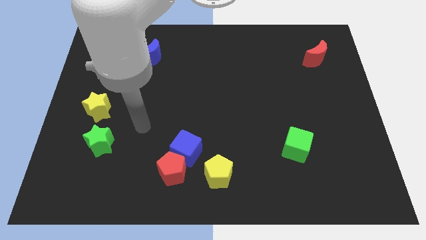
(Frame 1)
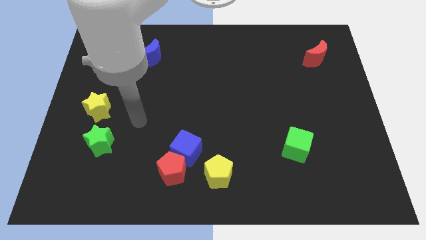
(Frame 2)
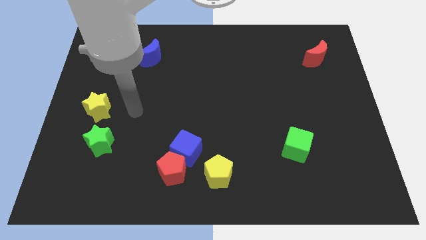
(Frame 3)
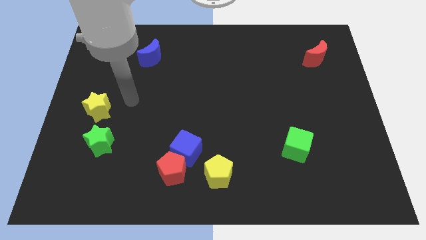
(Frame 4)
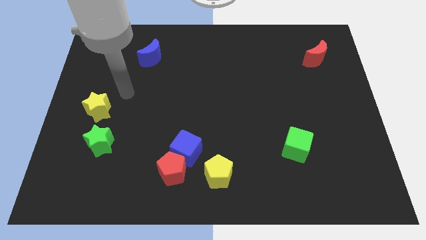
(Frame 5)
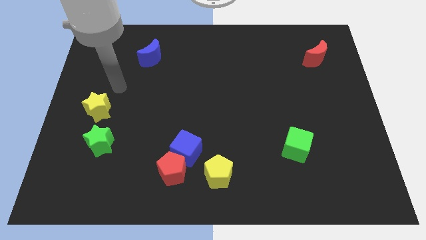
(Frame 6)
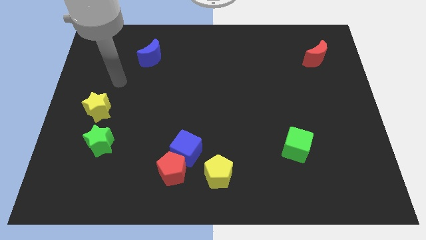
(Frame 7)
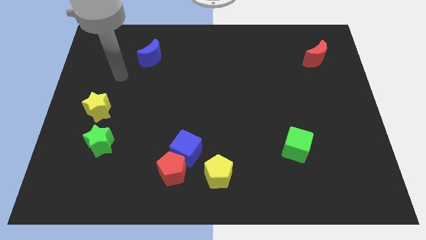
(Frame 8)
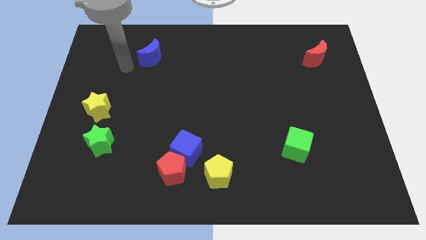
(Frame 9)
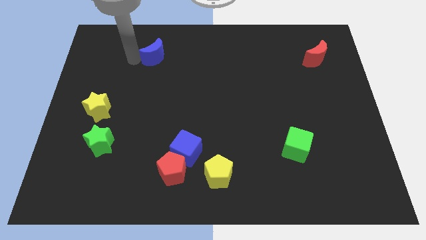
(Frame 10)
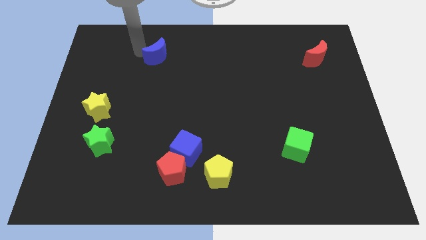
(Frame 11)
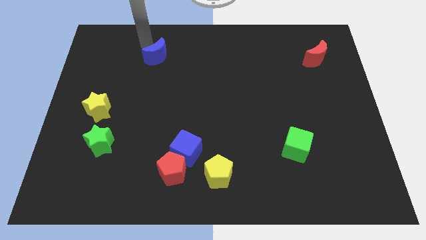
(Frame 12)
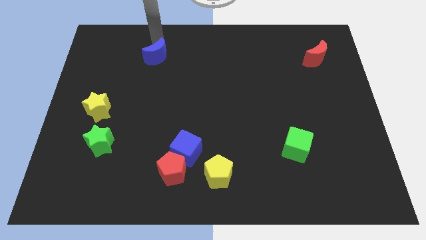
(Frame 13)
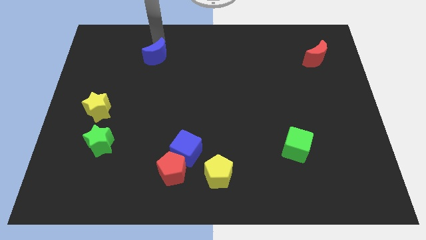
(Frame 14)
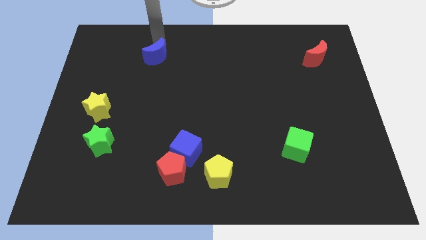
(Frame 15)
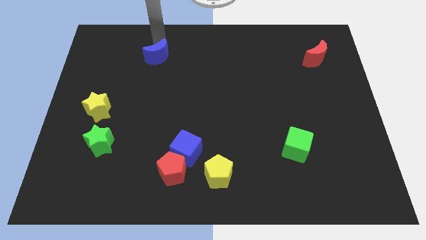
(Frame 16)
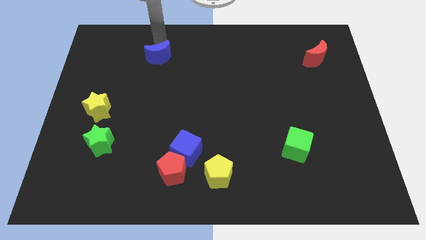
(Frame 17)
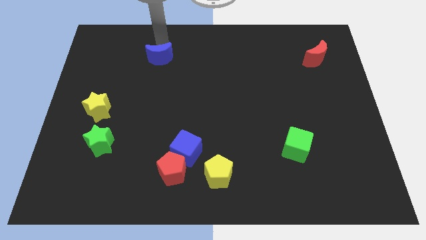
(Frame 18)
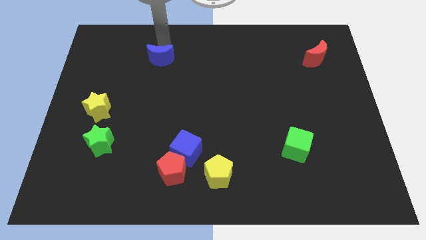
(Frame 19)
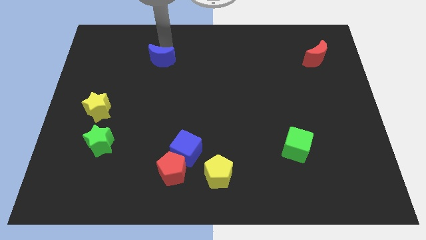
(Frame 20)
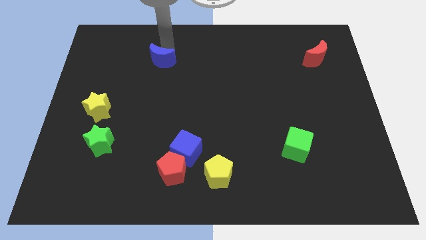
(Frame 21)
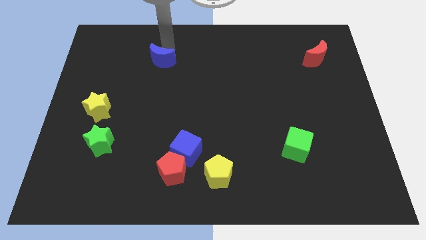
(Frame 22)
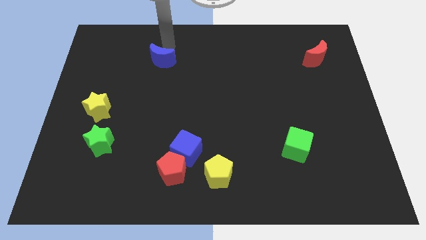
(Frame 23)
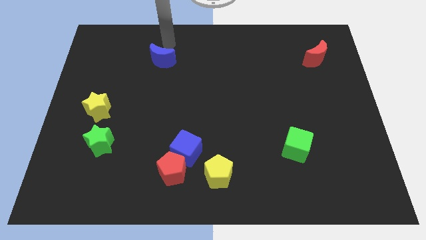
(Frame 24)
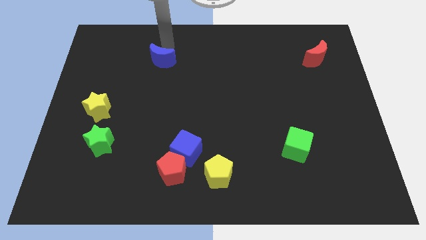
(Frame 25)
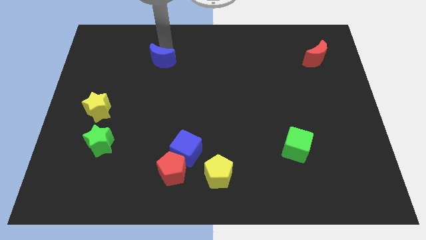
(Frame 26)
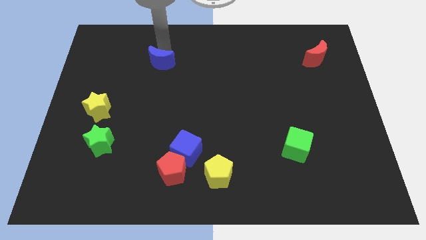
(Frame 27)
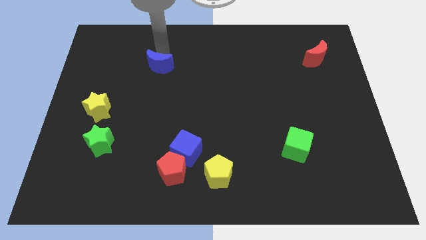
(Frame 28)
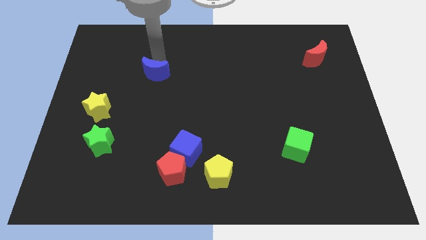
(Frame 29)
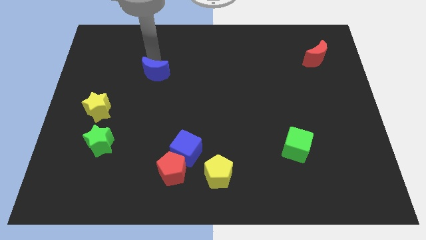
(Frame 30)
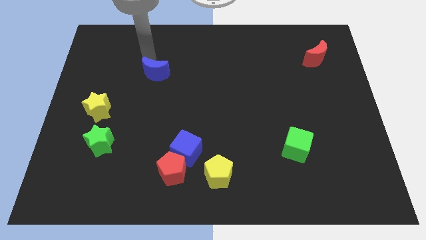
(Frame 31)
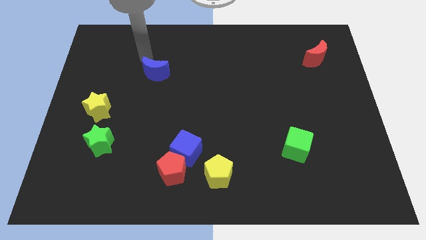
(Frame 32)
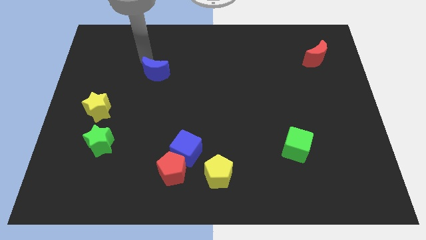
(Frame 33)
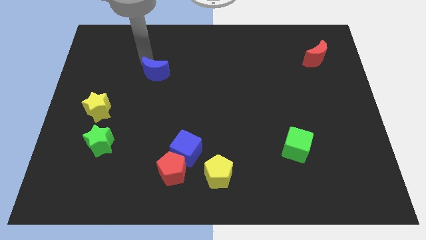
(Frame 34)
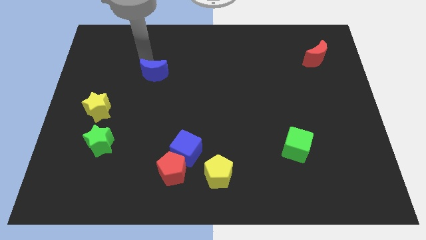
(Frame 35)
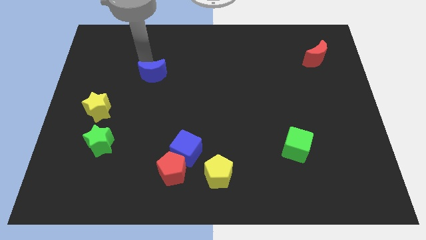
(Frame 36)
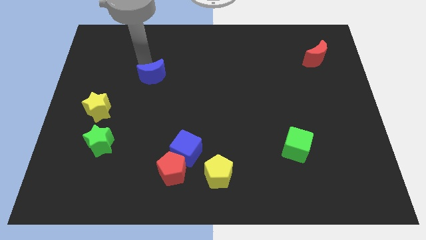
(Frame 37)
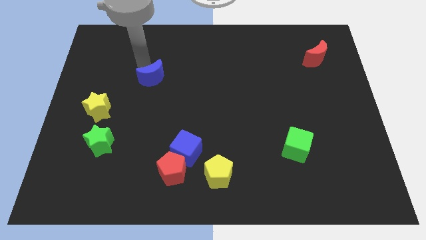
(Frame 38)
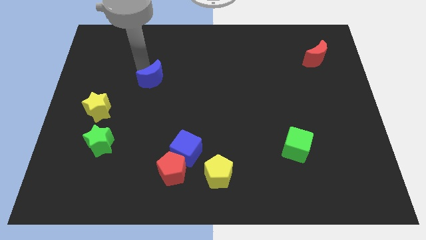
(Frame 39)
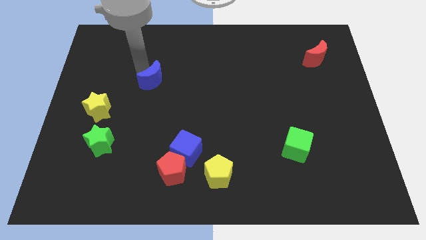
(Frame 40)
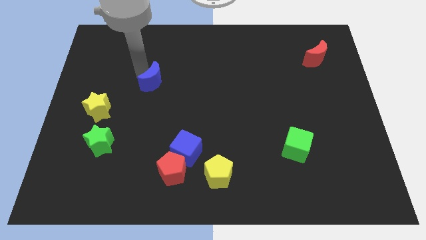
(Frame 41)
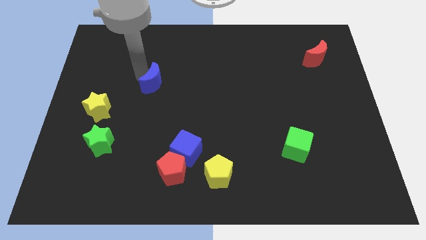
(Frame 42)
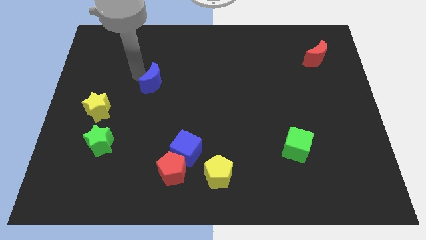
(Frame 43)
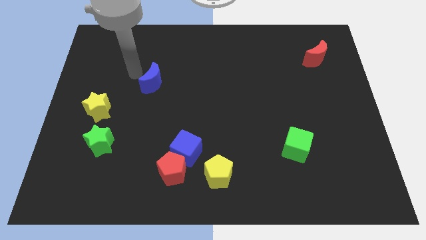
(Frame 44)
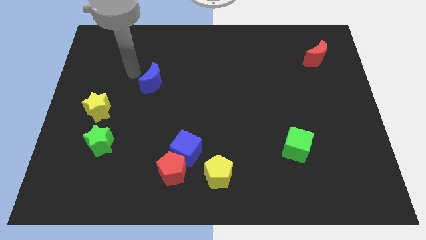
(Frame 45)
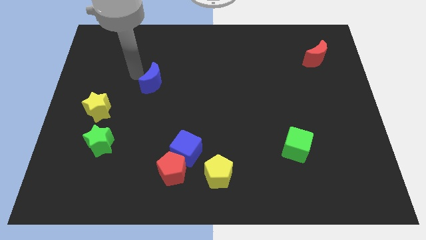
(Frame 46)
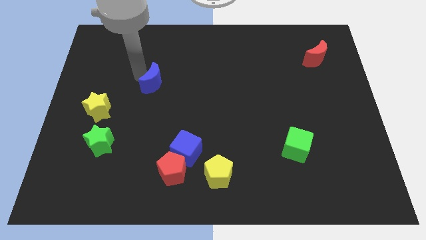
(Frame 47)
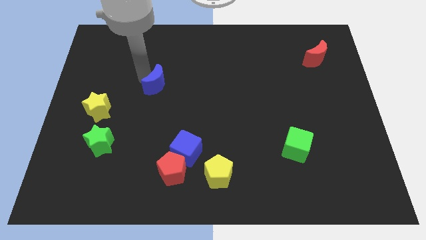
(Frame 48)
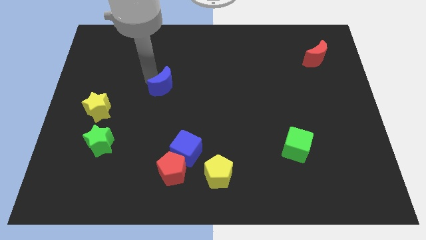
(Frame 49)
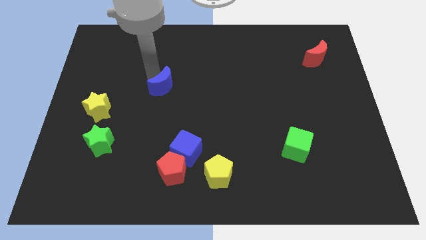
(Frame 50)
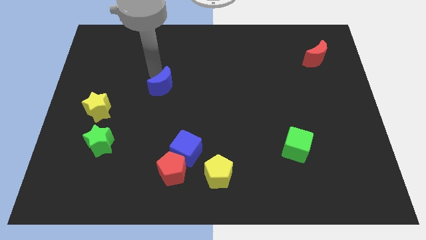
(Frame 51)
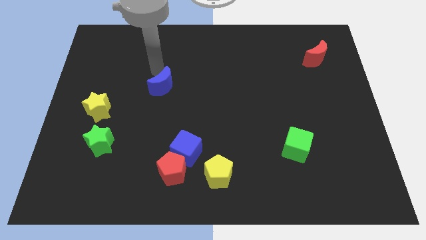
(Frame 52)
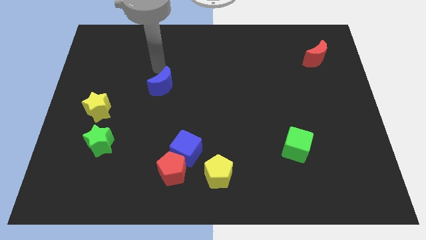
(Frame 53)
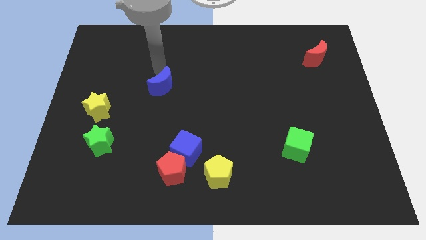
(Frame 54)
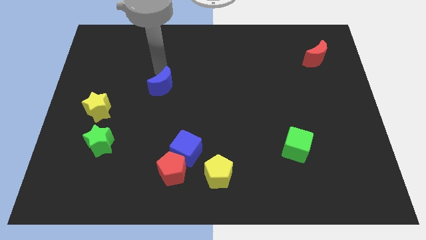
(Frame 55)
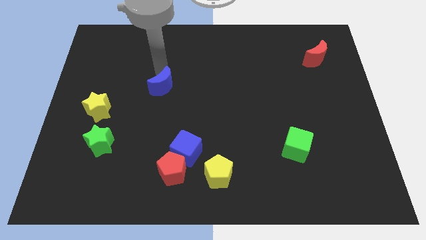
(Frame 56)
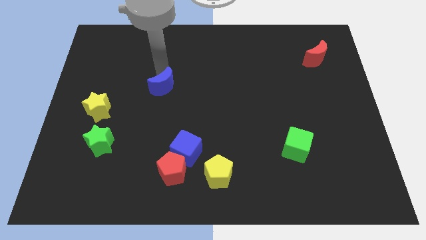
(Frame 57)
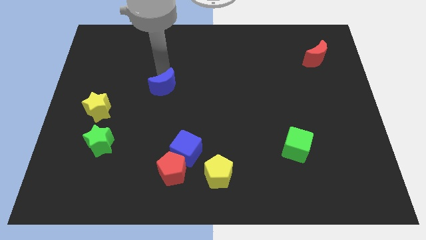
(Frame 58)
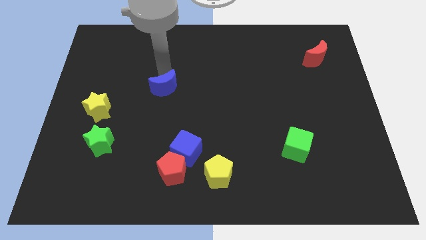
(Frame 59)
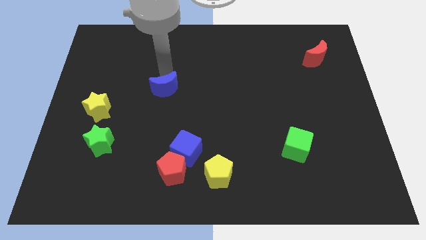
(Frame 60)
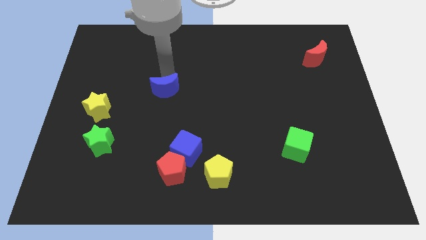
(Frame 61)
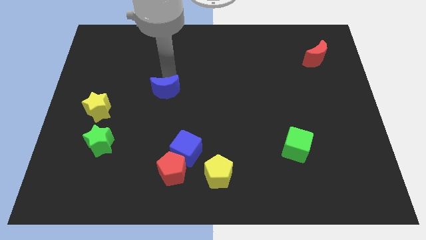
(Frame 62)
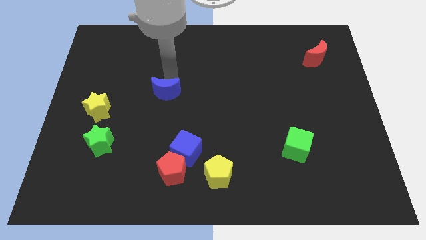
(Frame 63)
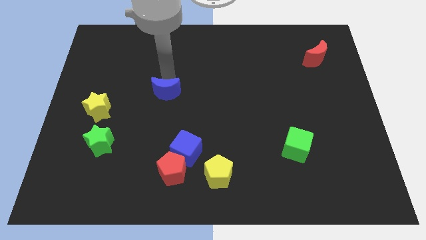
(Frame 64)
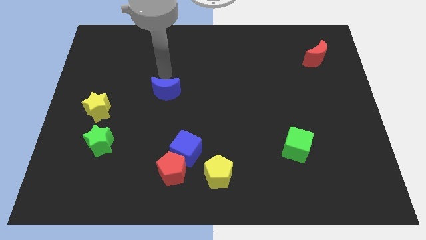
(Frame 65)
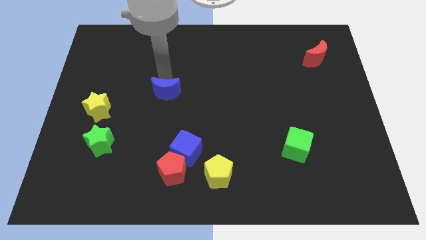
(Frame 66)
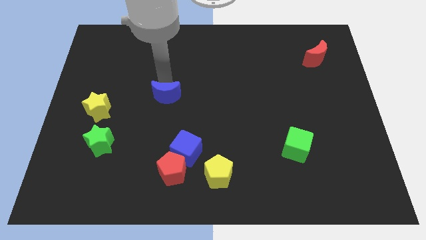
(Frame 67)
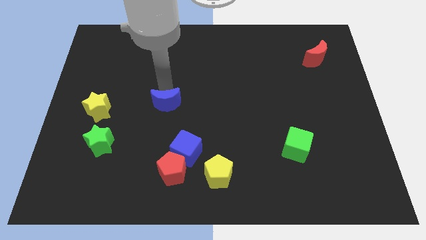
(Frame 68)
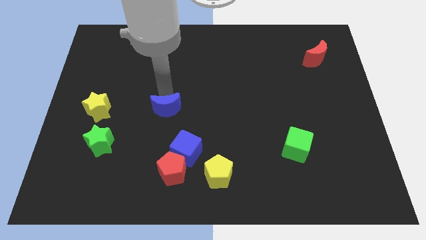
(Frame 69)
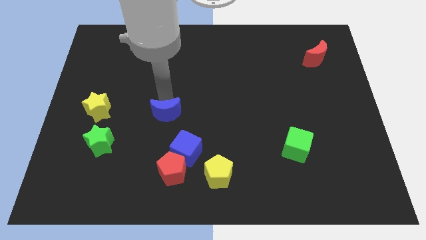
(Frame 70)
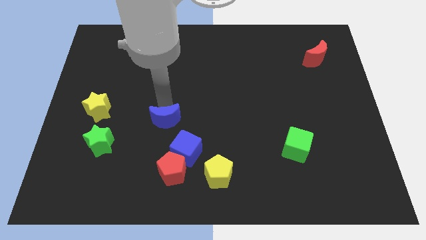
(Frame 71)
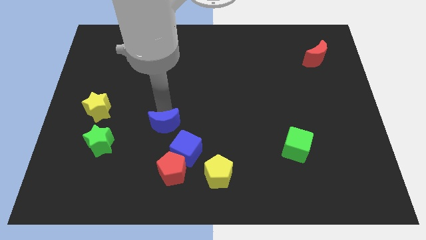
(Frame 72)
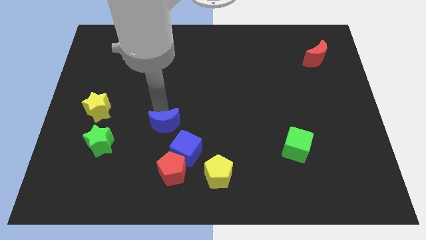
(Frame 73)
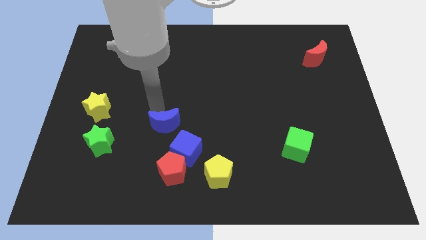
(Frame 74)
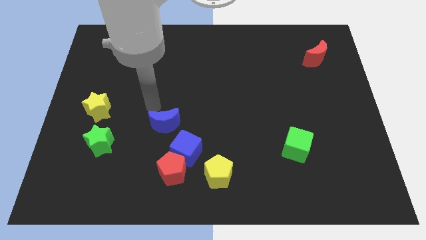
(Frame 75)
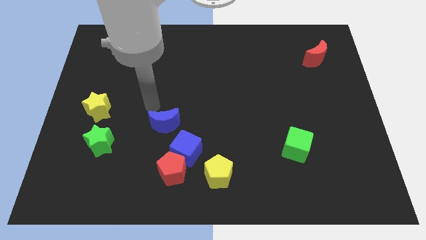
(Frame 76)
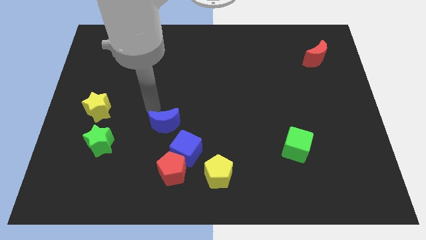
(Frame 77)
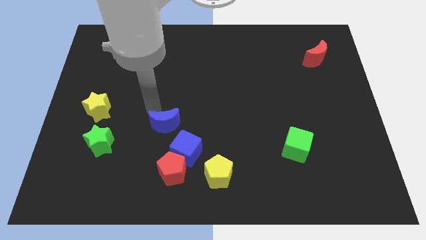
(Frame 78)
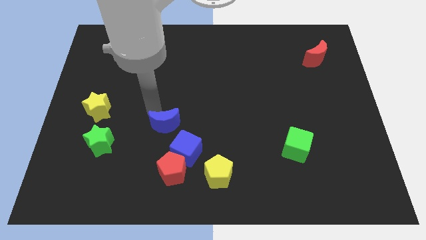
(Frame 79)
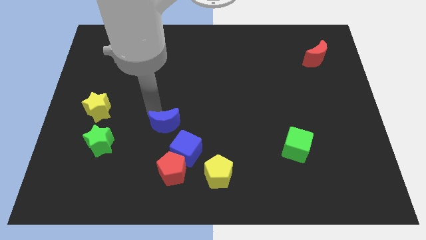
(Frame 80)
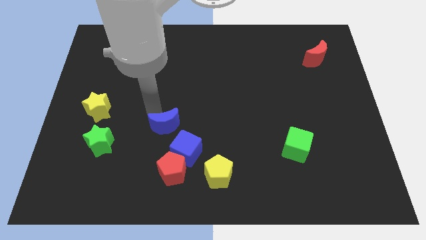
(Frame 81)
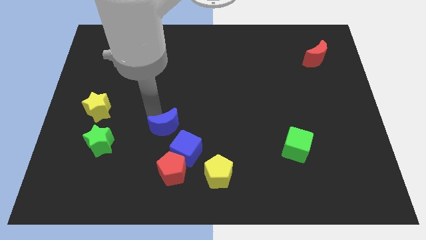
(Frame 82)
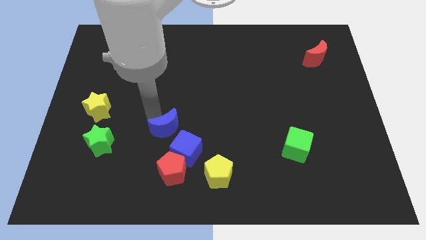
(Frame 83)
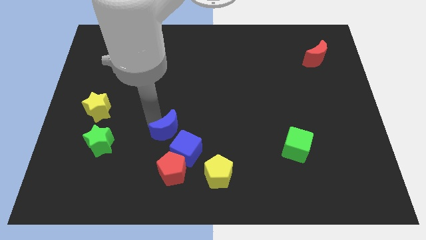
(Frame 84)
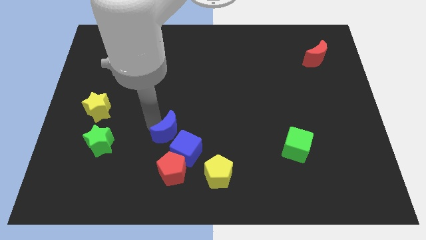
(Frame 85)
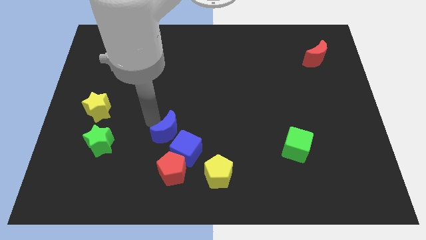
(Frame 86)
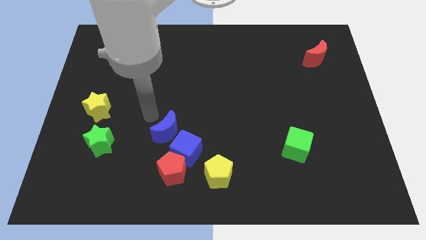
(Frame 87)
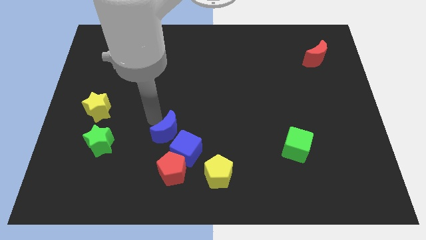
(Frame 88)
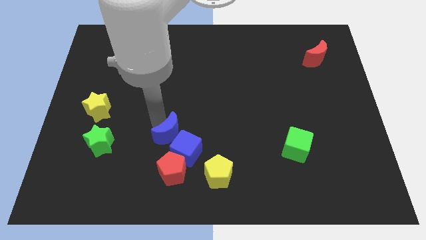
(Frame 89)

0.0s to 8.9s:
push the blue moon next to the blue cube
